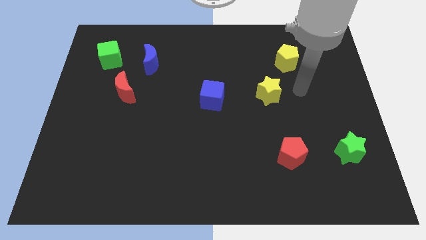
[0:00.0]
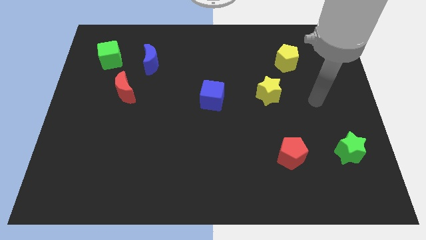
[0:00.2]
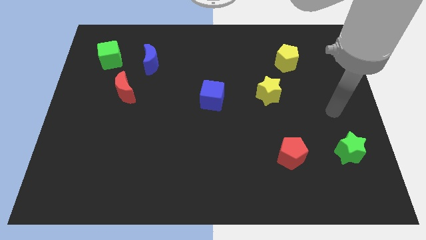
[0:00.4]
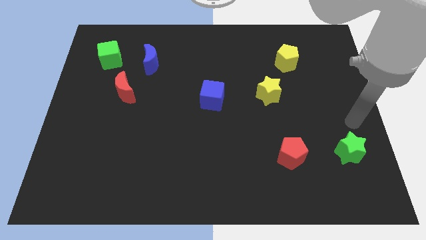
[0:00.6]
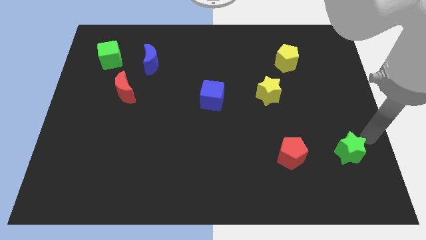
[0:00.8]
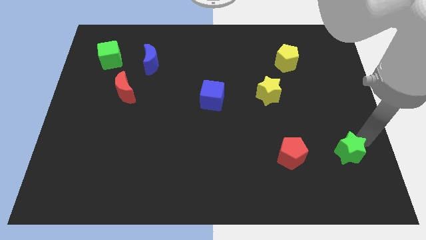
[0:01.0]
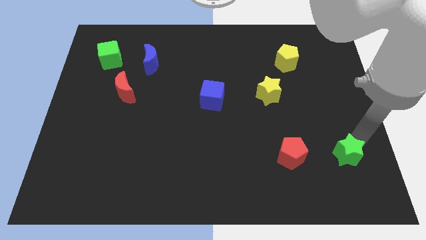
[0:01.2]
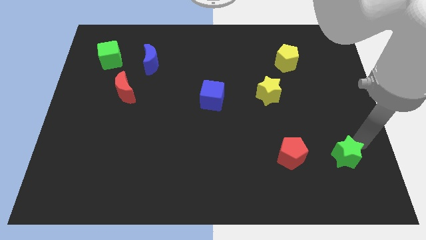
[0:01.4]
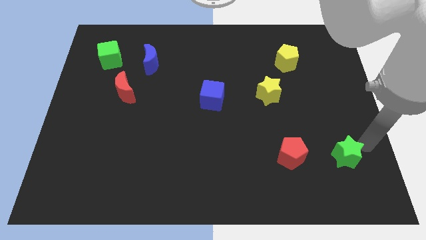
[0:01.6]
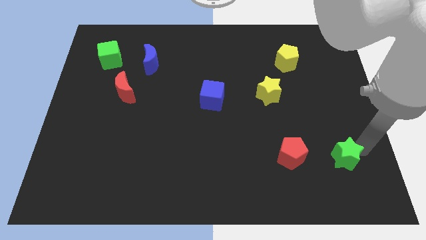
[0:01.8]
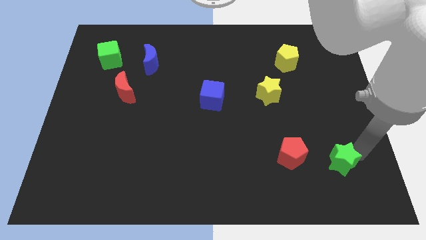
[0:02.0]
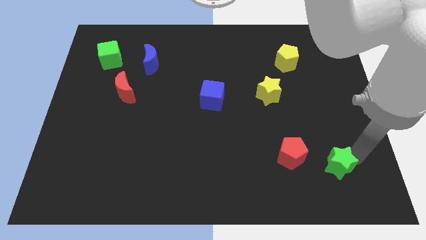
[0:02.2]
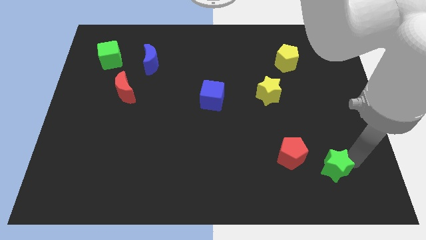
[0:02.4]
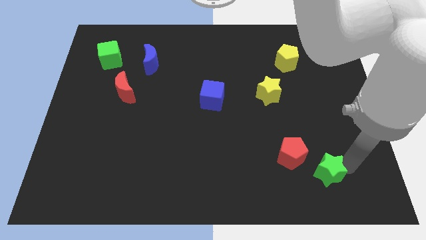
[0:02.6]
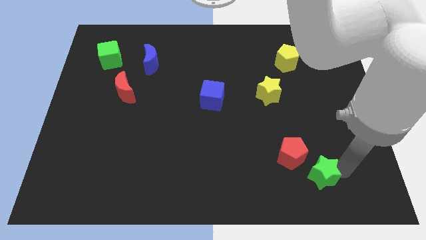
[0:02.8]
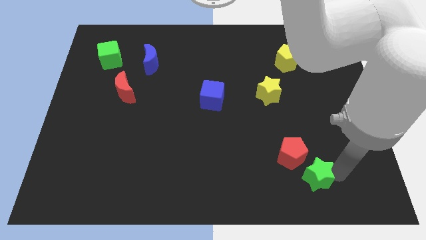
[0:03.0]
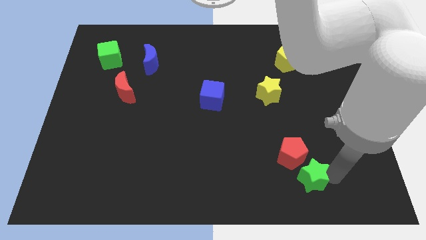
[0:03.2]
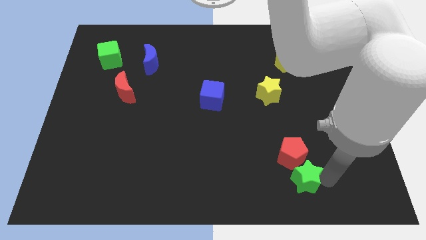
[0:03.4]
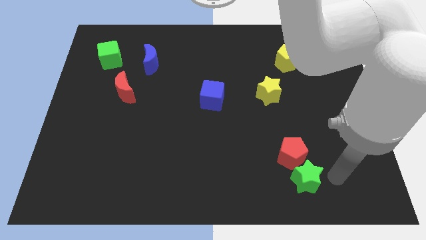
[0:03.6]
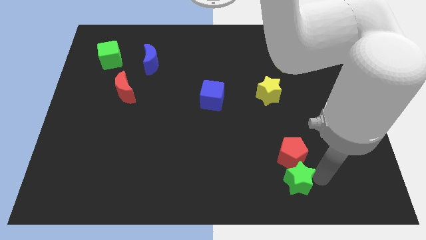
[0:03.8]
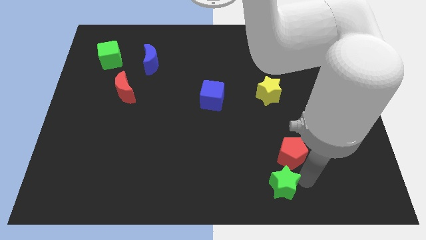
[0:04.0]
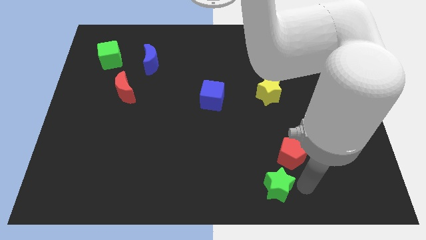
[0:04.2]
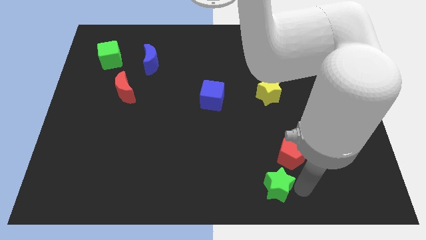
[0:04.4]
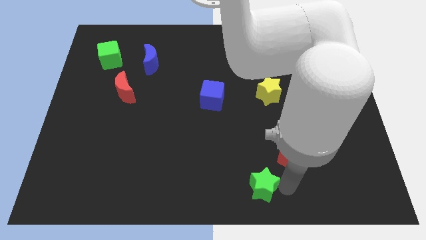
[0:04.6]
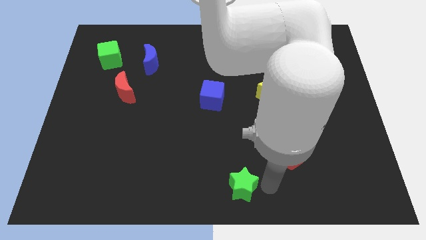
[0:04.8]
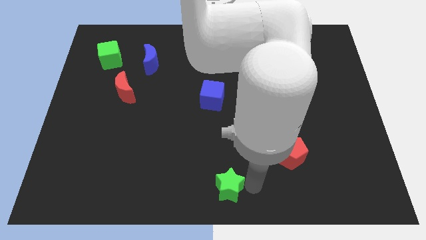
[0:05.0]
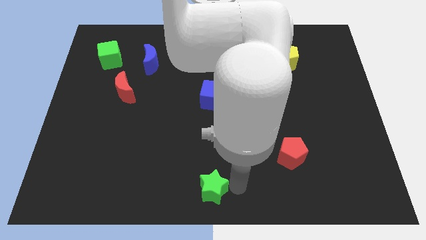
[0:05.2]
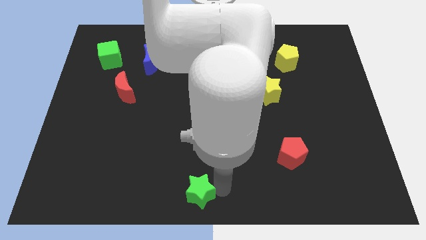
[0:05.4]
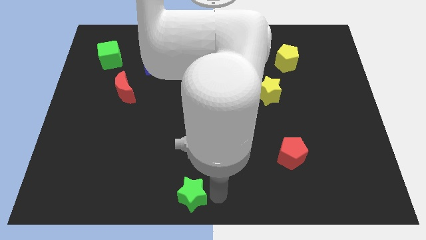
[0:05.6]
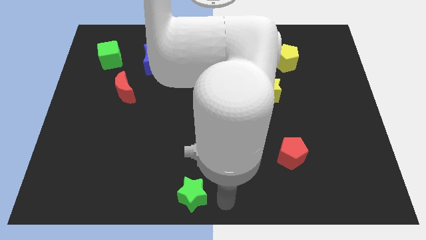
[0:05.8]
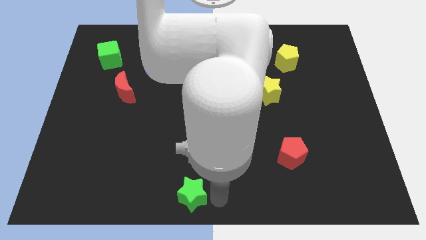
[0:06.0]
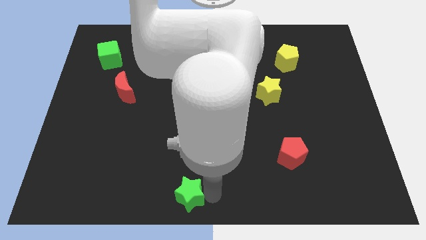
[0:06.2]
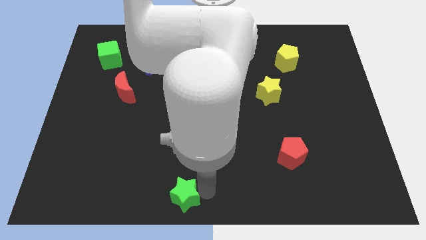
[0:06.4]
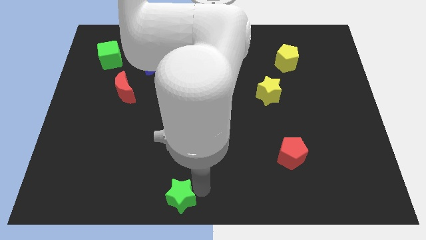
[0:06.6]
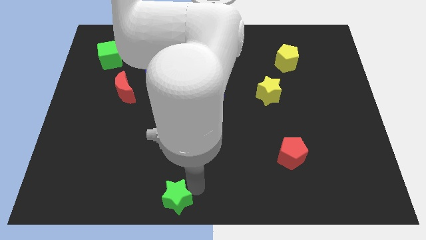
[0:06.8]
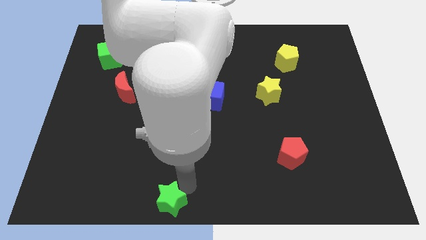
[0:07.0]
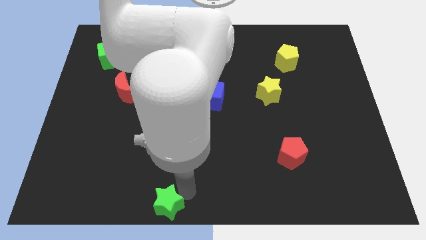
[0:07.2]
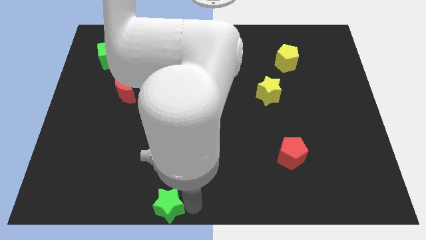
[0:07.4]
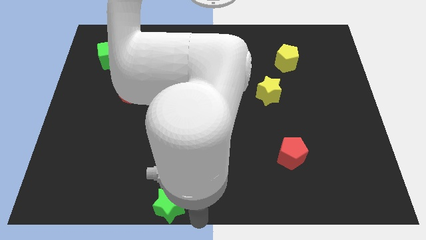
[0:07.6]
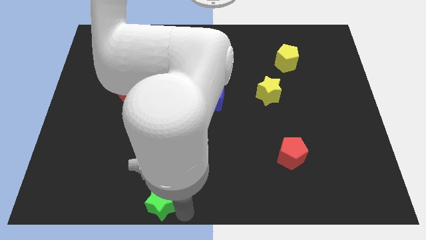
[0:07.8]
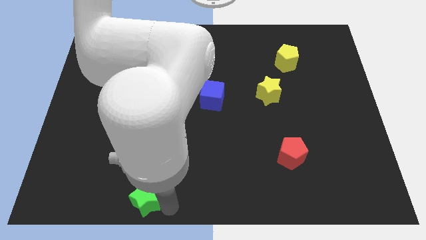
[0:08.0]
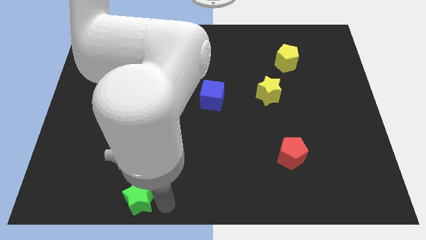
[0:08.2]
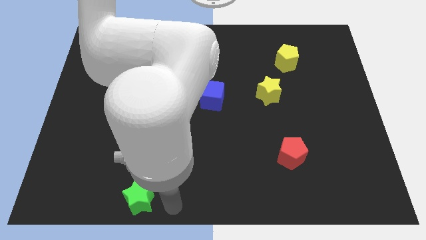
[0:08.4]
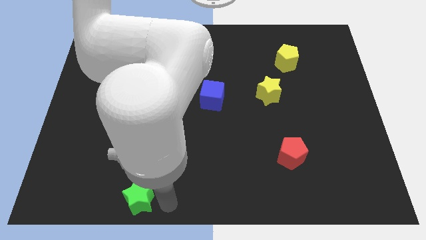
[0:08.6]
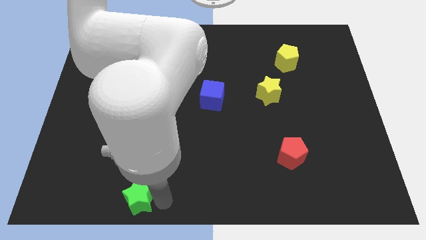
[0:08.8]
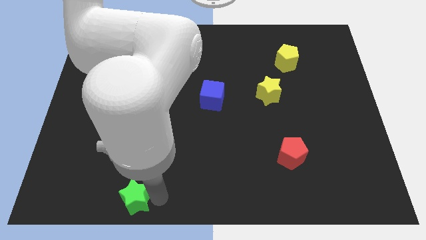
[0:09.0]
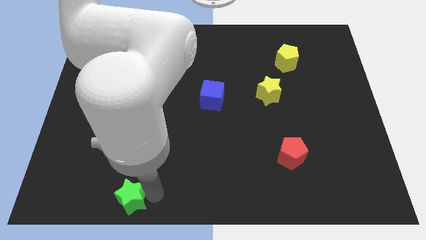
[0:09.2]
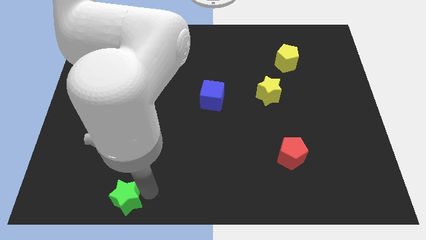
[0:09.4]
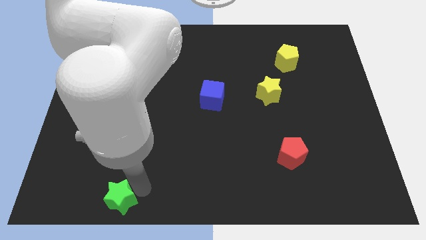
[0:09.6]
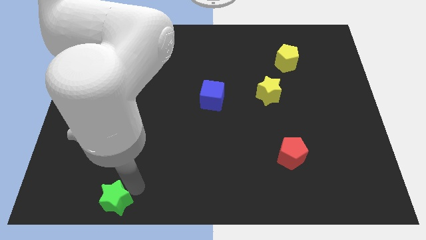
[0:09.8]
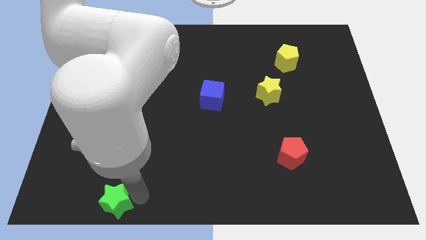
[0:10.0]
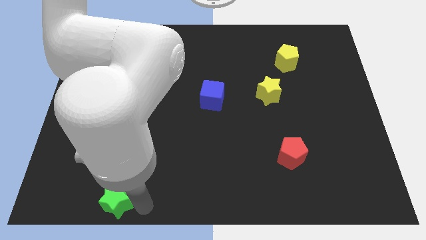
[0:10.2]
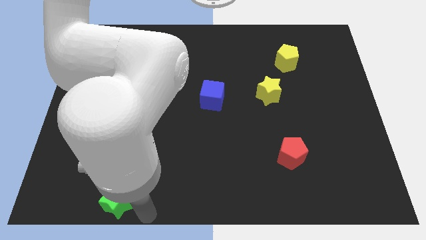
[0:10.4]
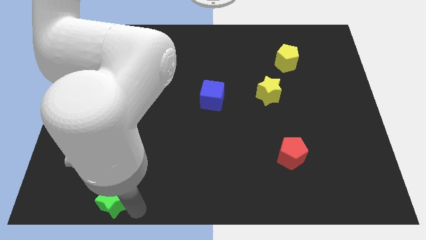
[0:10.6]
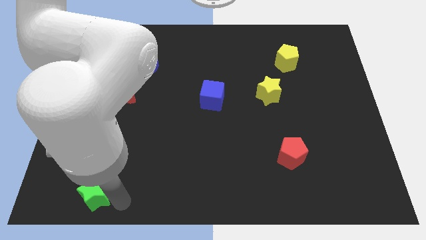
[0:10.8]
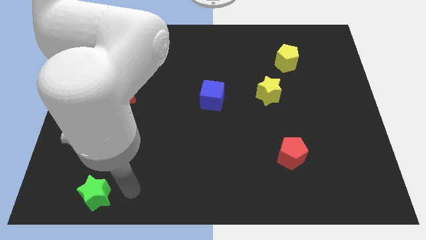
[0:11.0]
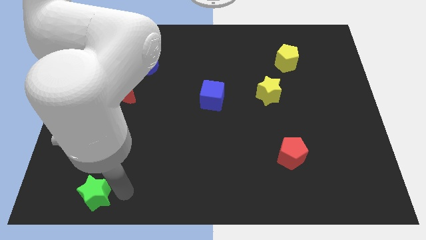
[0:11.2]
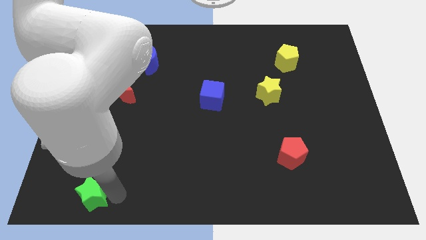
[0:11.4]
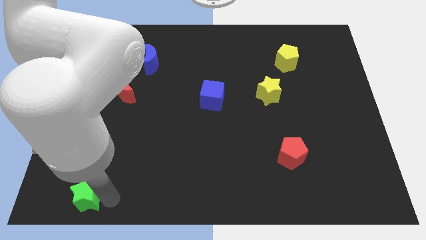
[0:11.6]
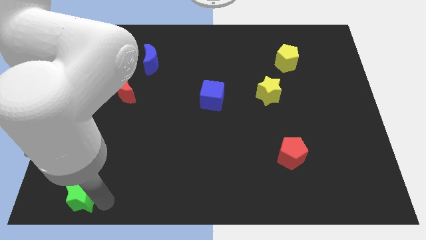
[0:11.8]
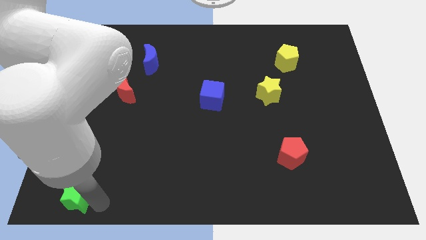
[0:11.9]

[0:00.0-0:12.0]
move the green star to the bottom left of the board

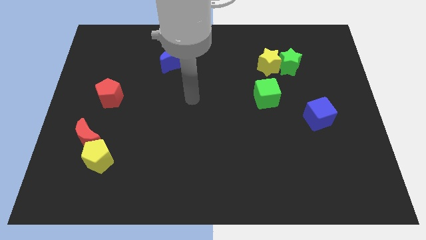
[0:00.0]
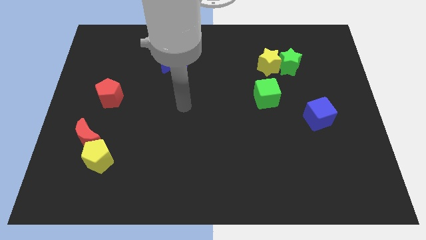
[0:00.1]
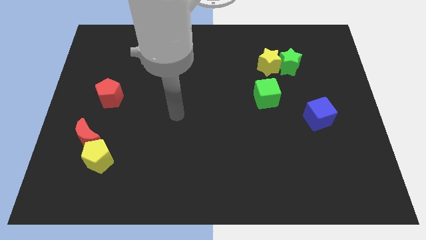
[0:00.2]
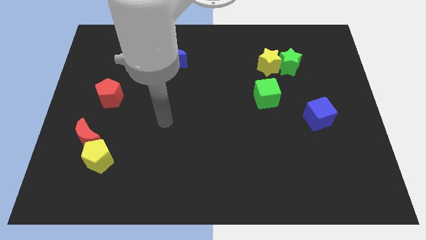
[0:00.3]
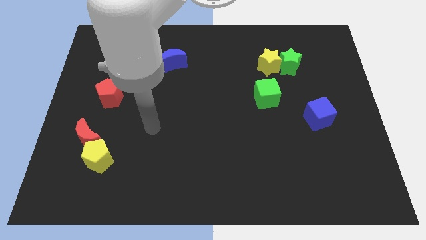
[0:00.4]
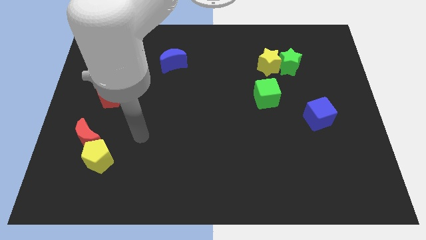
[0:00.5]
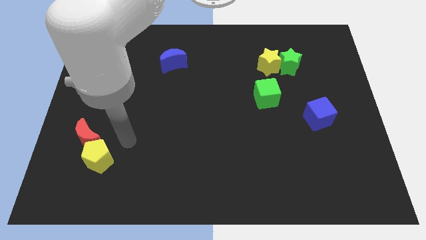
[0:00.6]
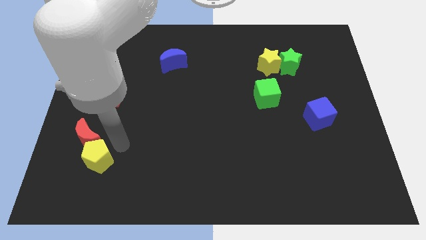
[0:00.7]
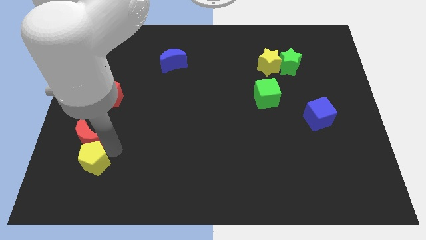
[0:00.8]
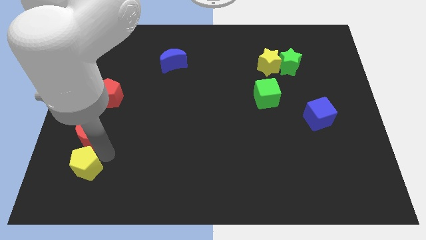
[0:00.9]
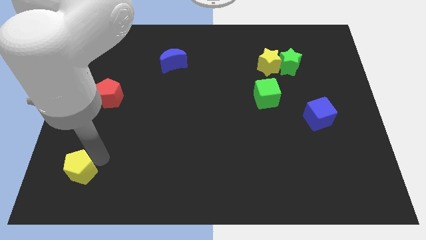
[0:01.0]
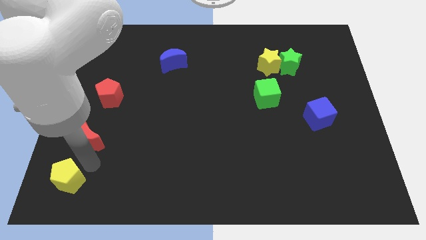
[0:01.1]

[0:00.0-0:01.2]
move the yellow pentagon to the bottom left of the board
